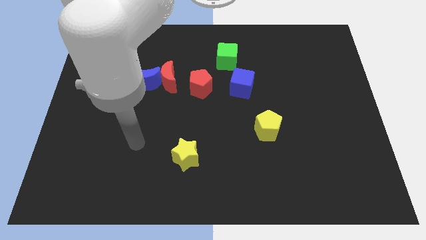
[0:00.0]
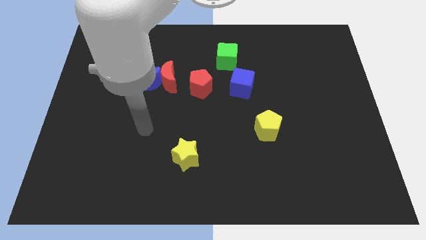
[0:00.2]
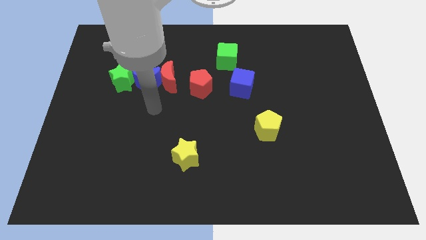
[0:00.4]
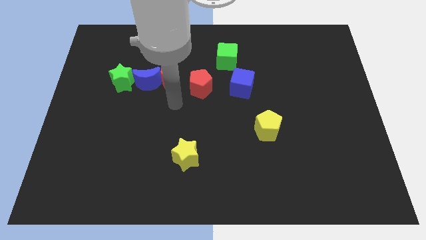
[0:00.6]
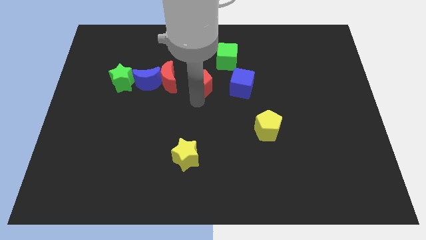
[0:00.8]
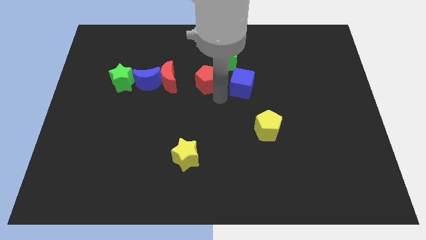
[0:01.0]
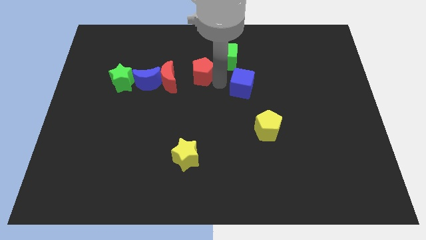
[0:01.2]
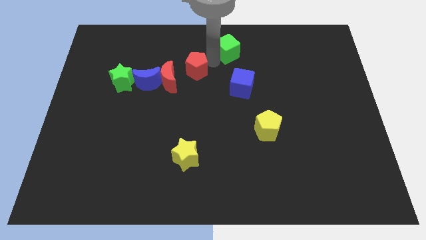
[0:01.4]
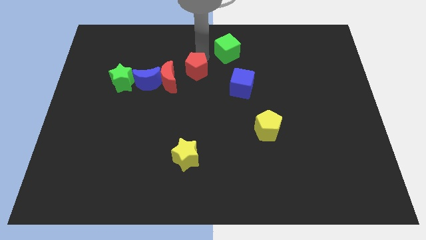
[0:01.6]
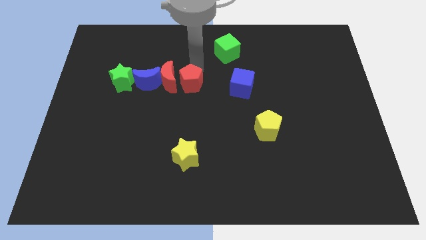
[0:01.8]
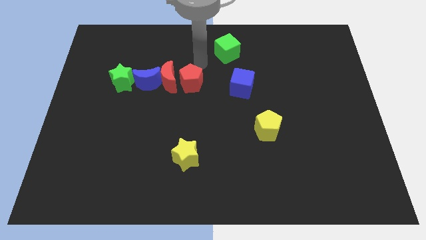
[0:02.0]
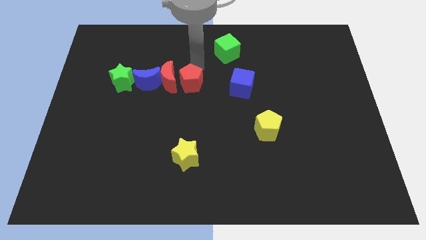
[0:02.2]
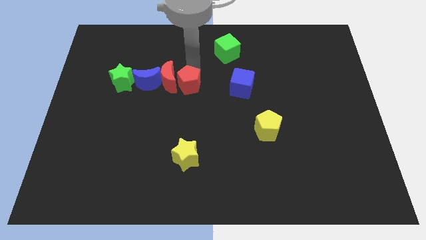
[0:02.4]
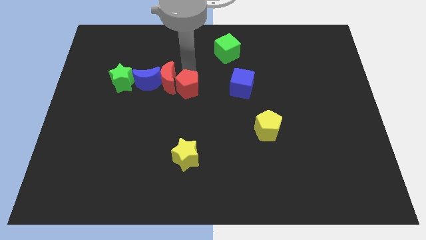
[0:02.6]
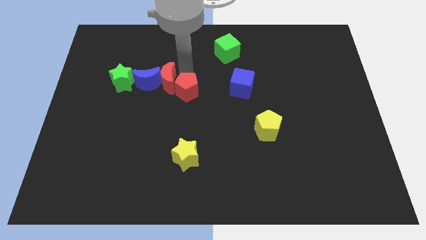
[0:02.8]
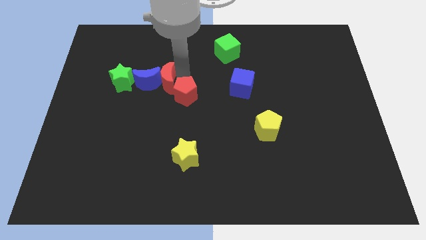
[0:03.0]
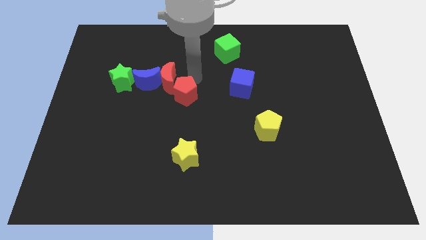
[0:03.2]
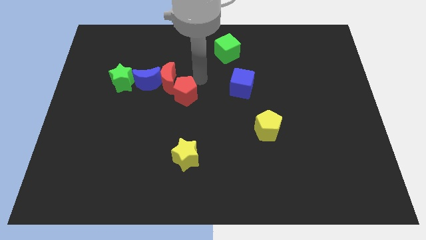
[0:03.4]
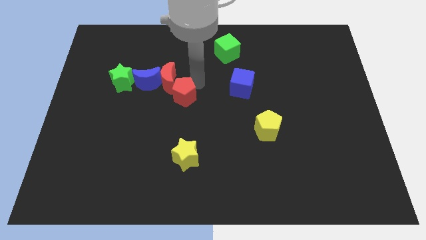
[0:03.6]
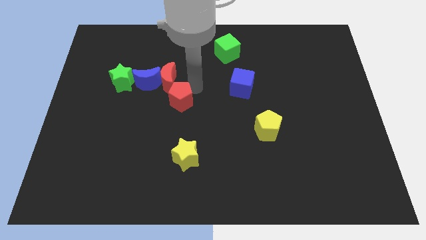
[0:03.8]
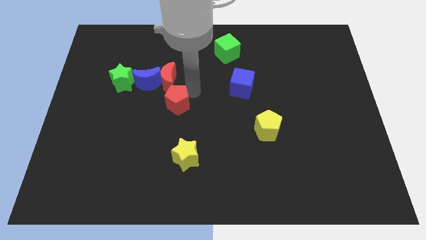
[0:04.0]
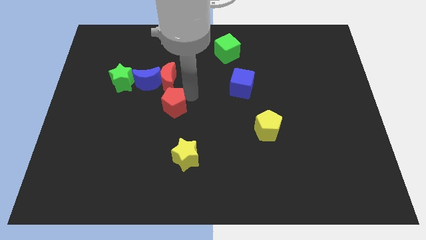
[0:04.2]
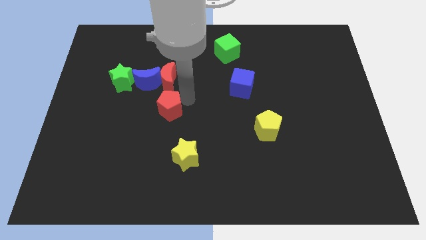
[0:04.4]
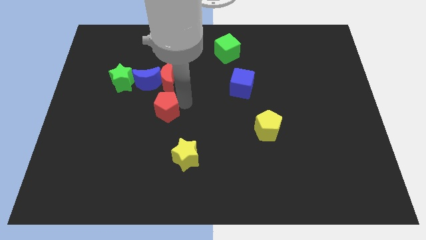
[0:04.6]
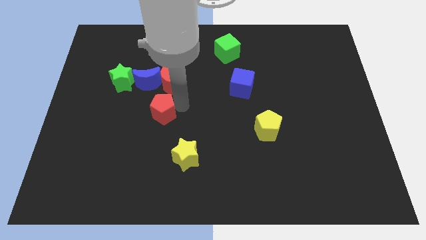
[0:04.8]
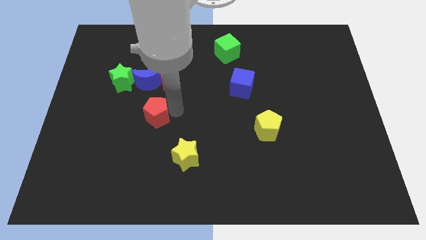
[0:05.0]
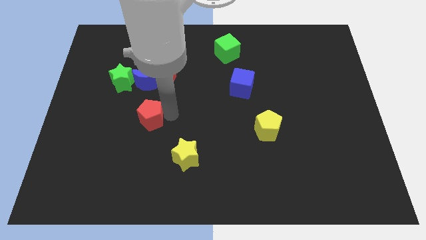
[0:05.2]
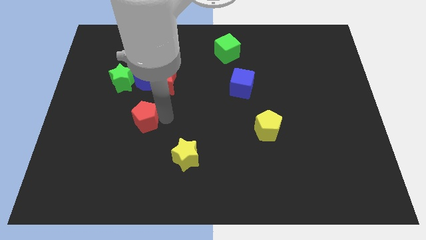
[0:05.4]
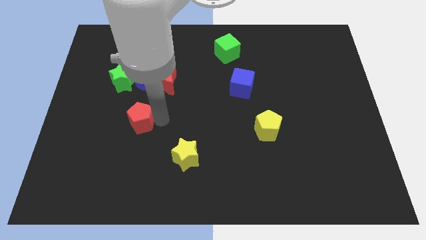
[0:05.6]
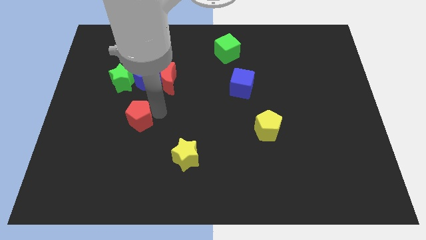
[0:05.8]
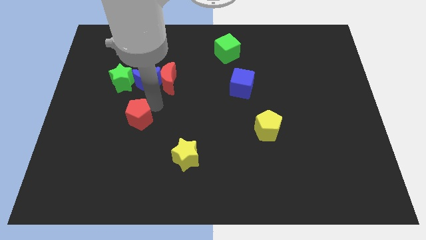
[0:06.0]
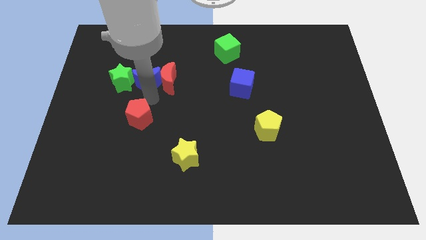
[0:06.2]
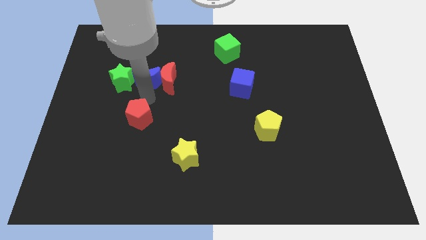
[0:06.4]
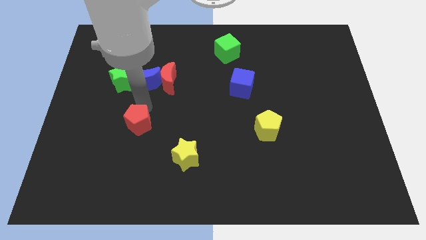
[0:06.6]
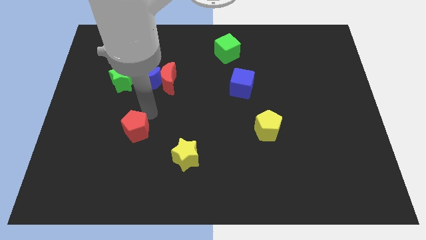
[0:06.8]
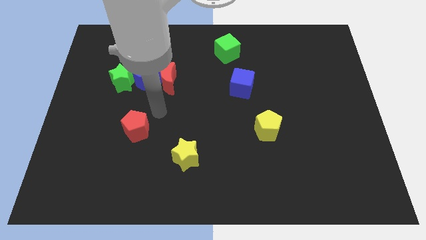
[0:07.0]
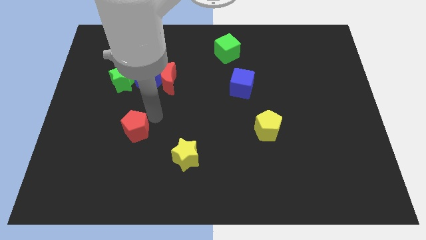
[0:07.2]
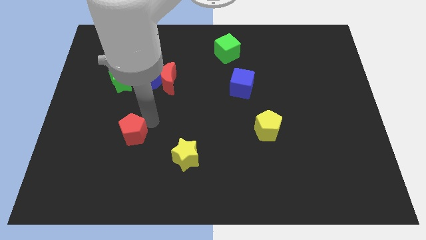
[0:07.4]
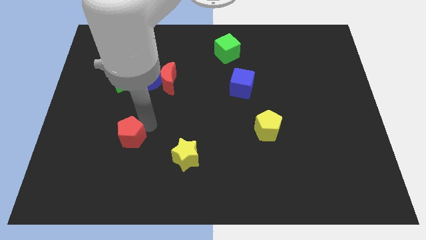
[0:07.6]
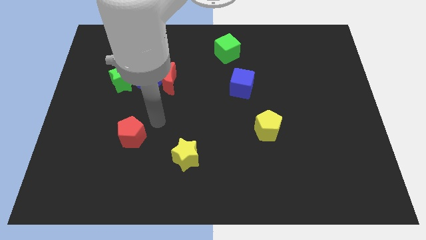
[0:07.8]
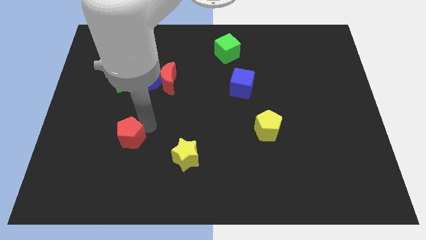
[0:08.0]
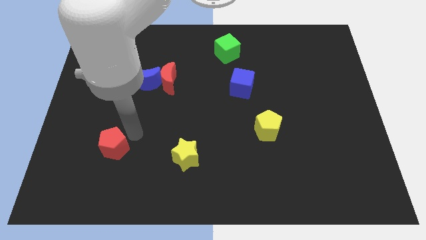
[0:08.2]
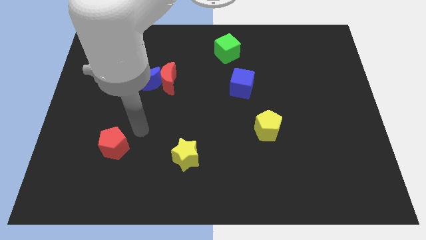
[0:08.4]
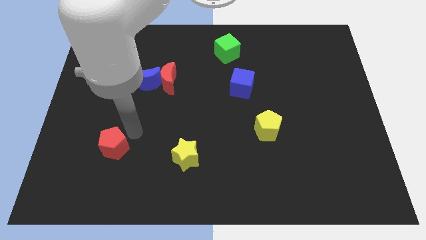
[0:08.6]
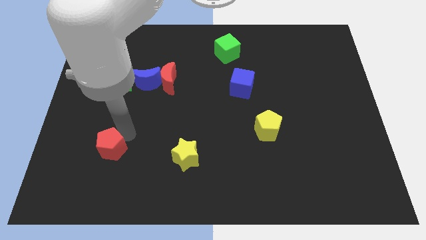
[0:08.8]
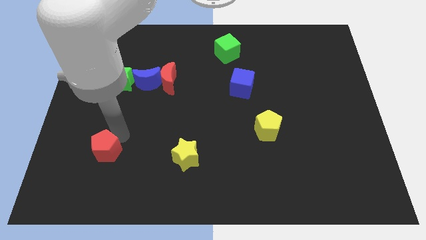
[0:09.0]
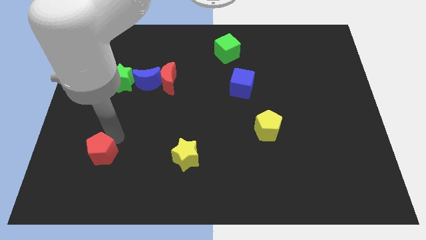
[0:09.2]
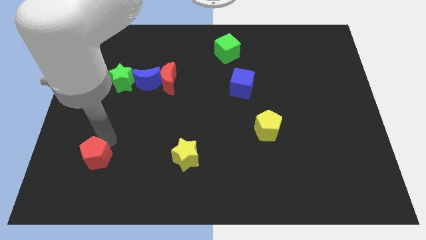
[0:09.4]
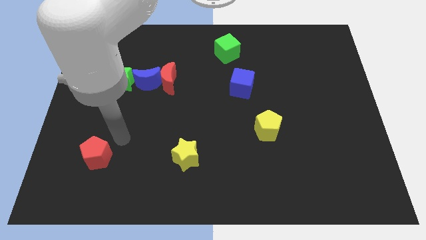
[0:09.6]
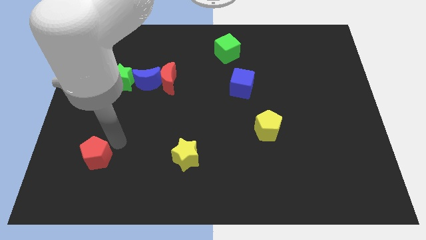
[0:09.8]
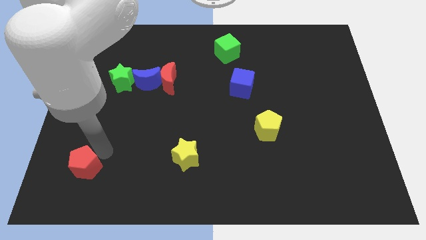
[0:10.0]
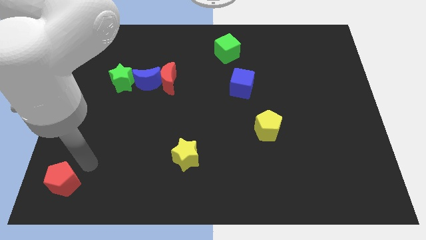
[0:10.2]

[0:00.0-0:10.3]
slide the red pentagon to the bottom left

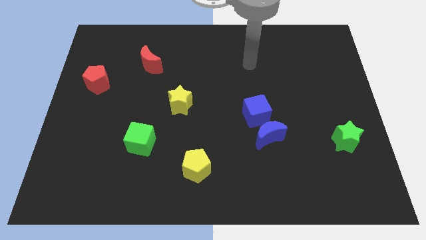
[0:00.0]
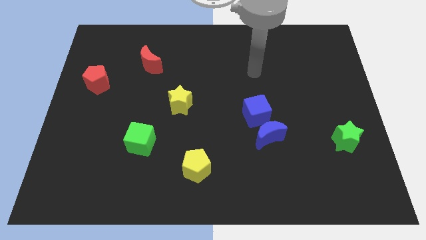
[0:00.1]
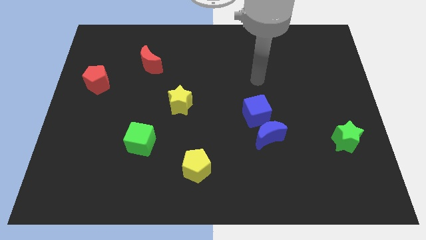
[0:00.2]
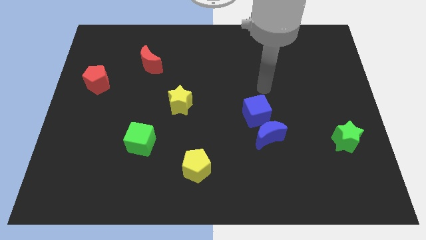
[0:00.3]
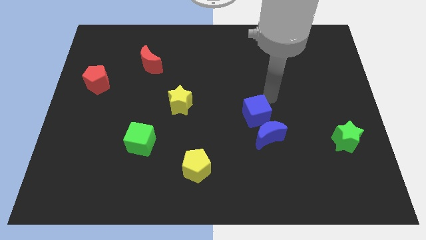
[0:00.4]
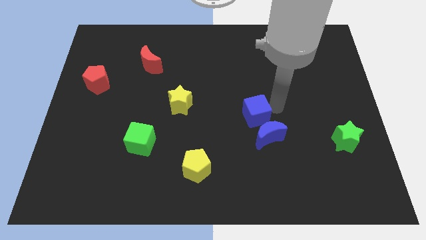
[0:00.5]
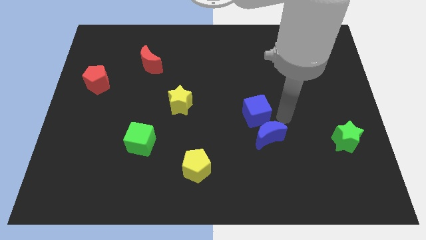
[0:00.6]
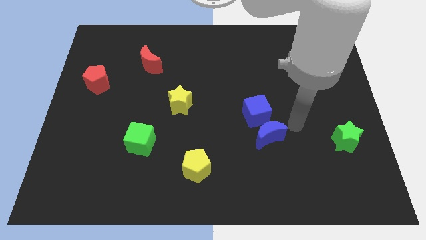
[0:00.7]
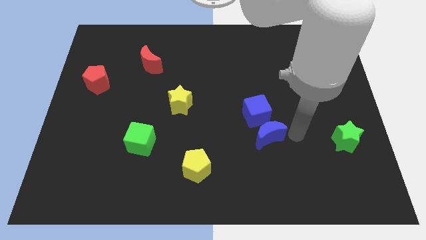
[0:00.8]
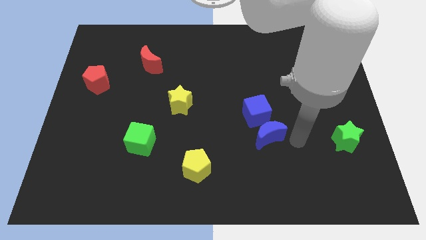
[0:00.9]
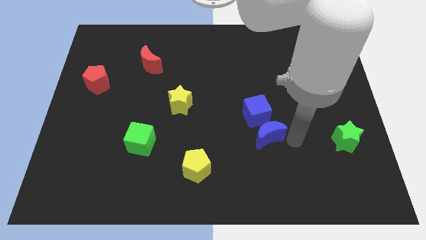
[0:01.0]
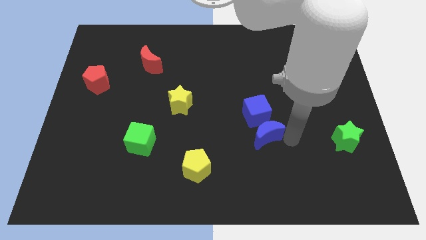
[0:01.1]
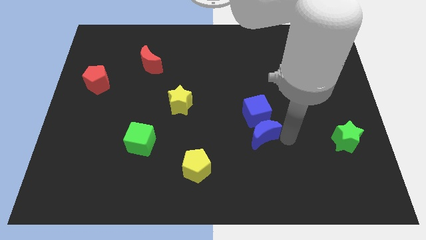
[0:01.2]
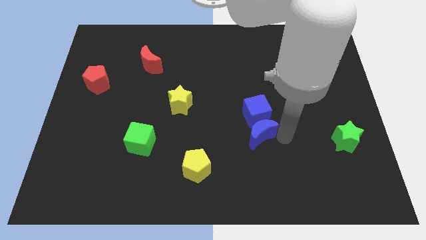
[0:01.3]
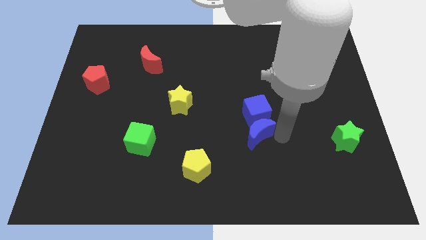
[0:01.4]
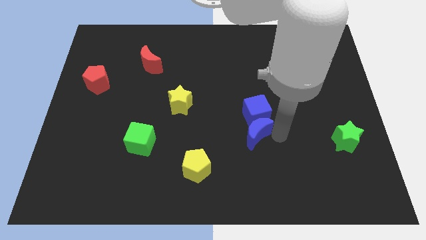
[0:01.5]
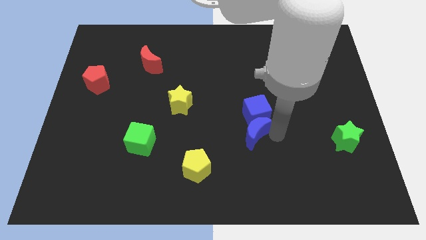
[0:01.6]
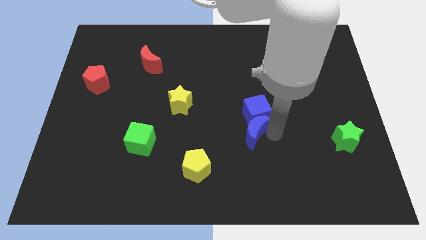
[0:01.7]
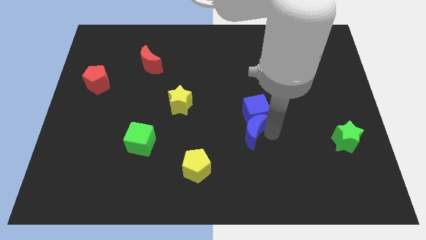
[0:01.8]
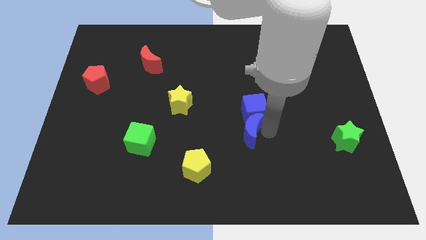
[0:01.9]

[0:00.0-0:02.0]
slide the blue moon to the center
